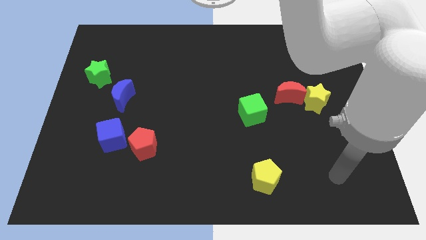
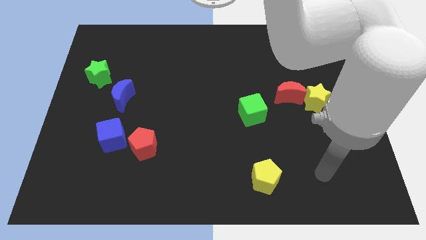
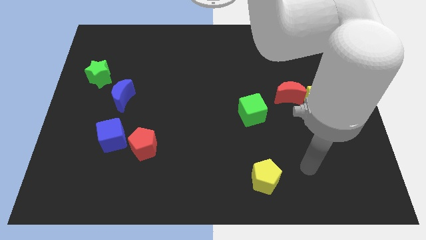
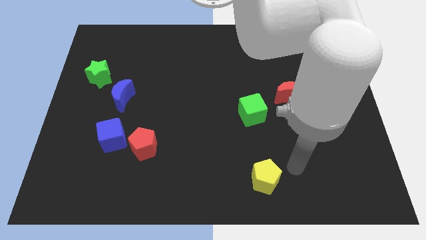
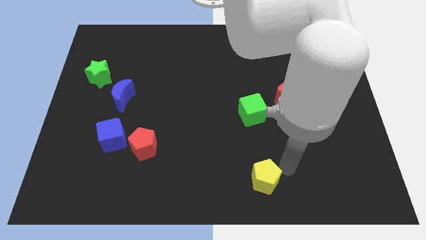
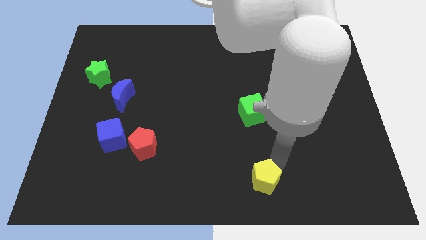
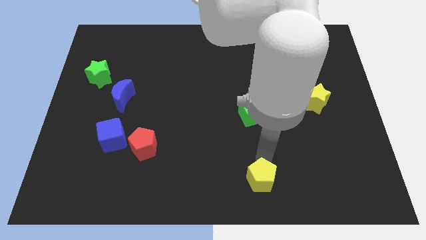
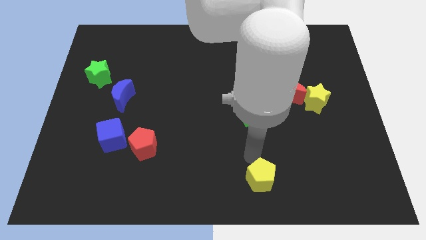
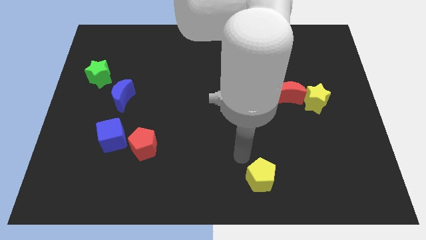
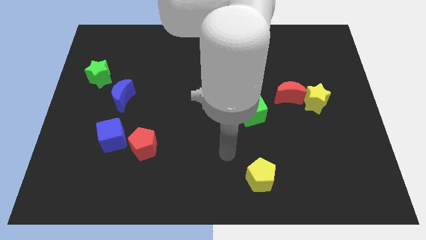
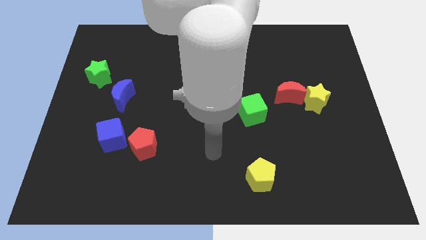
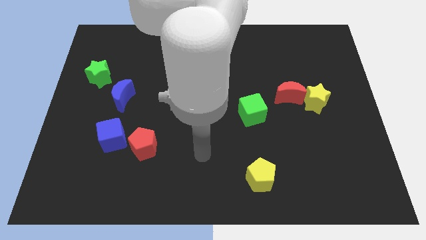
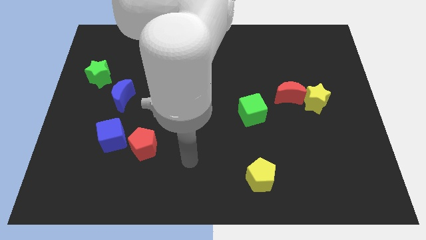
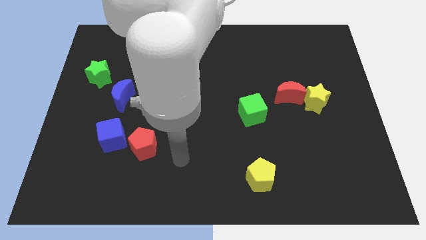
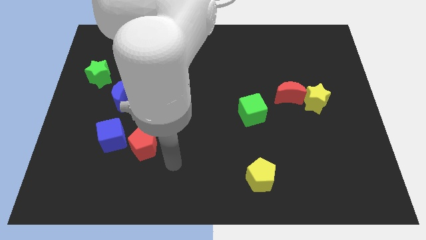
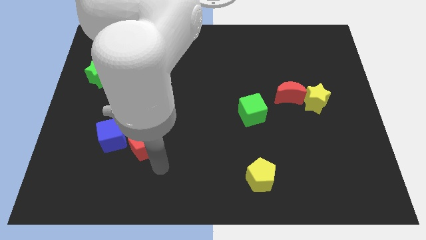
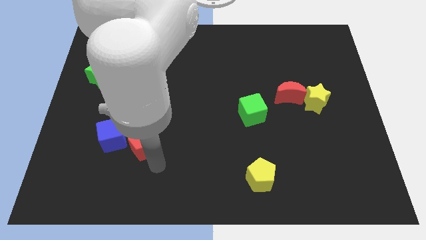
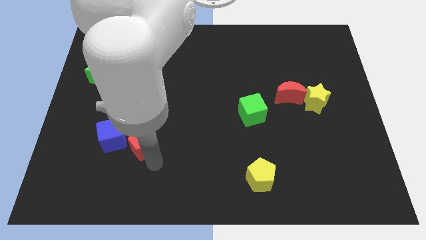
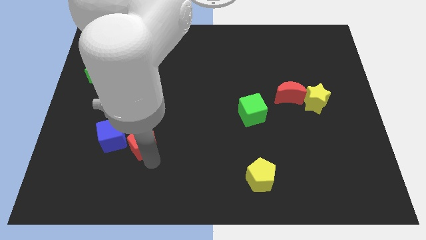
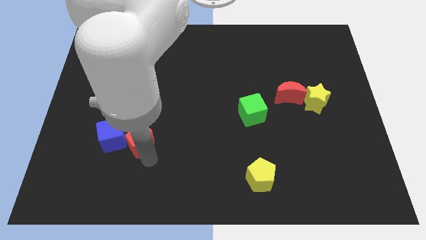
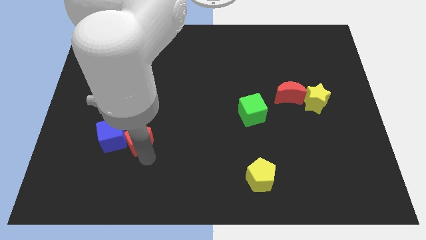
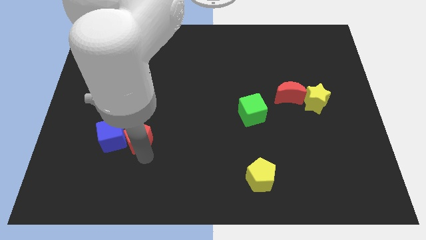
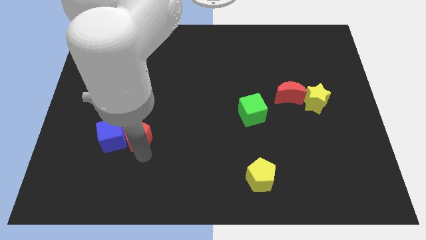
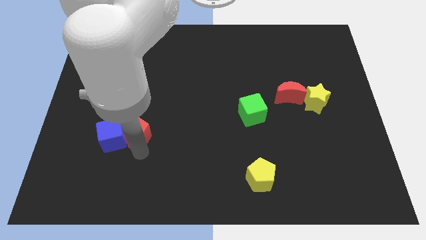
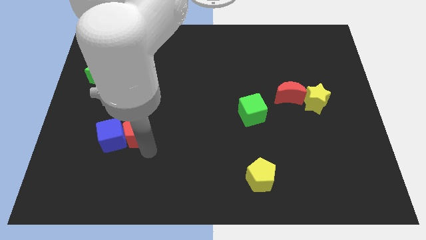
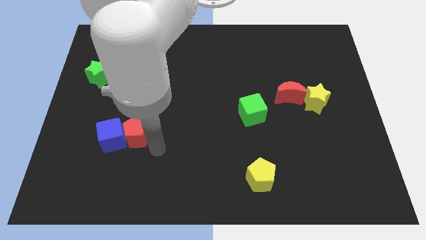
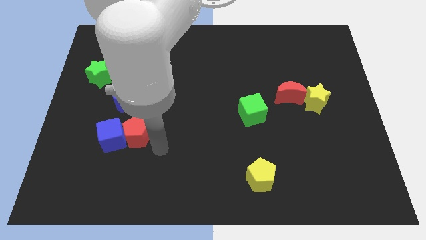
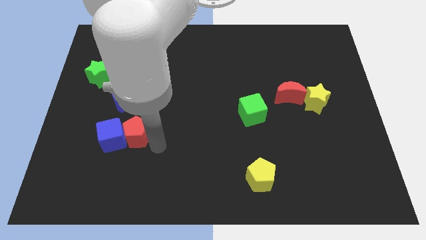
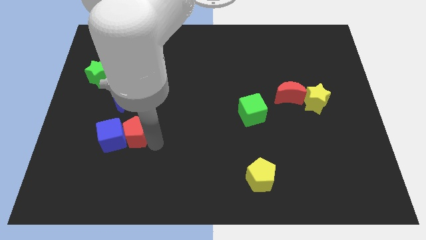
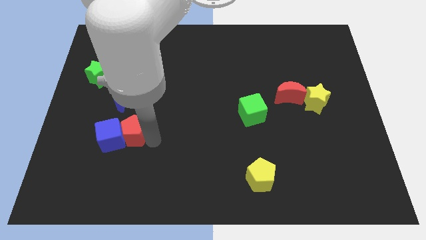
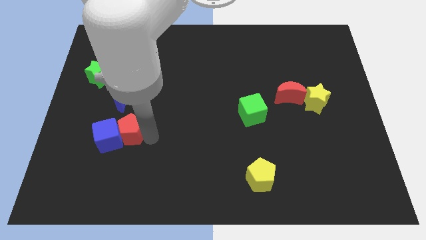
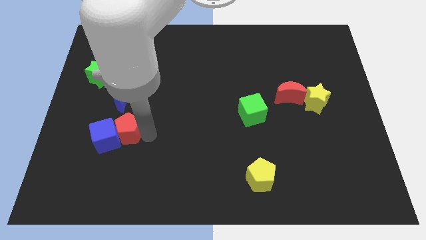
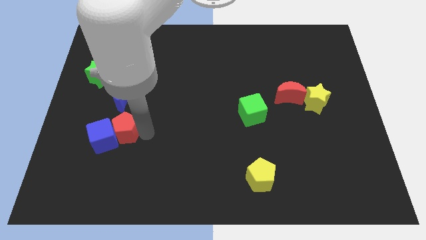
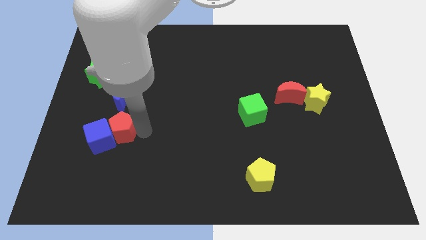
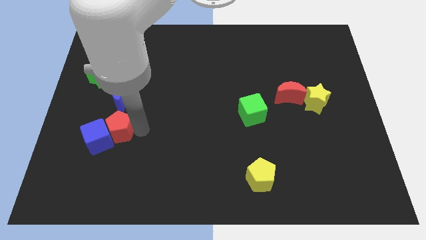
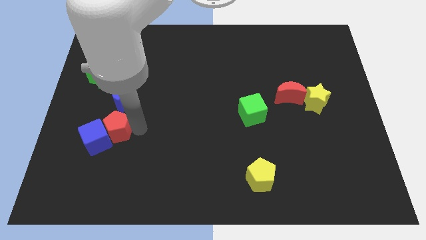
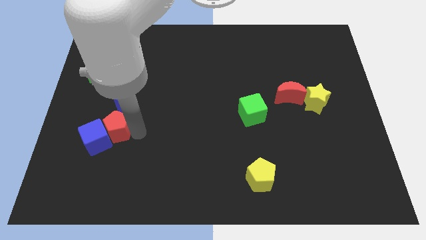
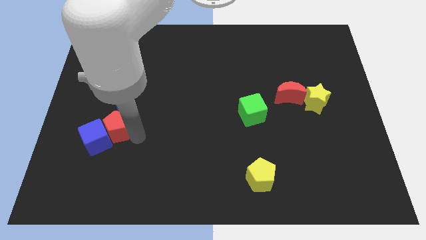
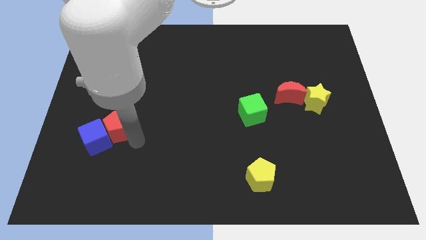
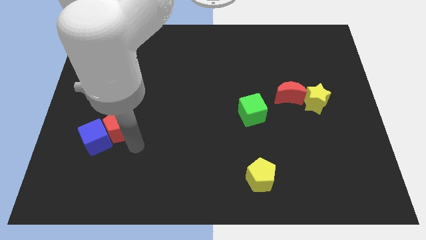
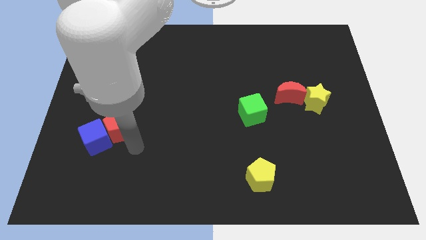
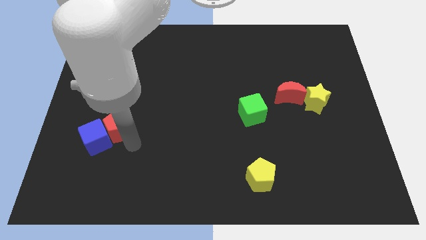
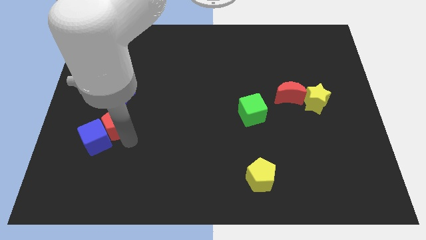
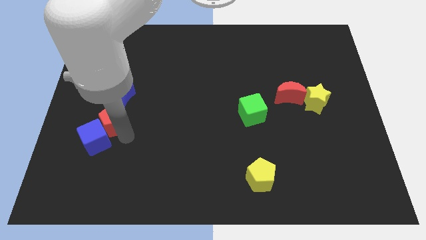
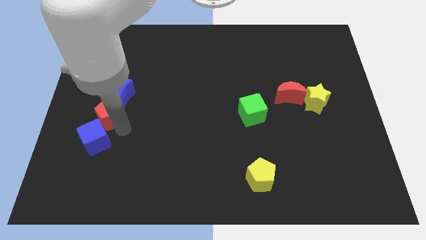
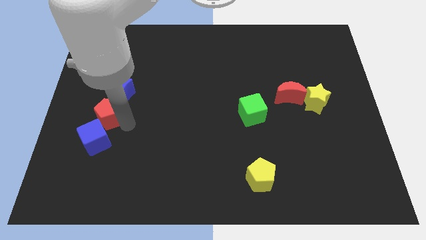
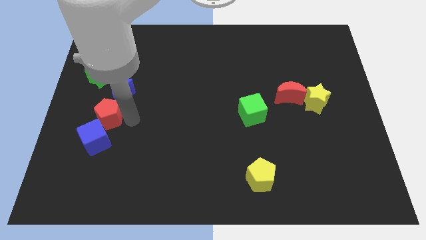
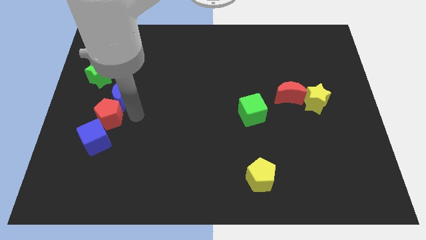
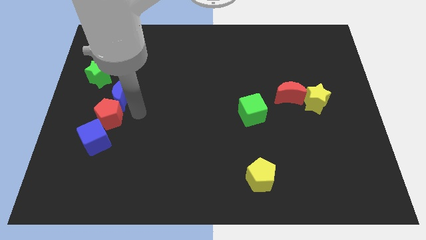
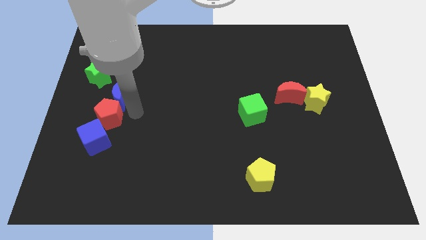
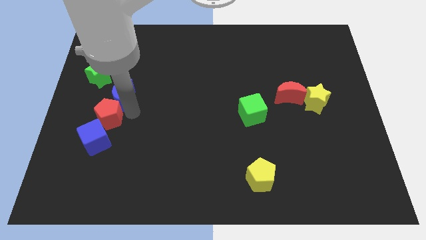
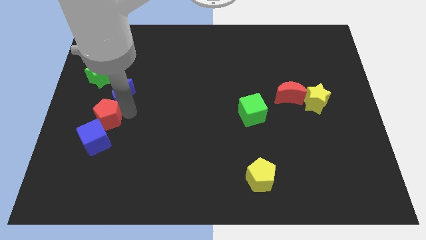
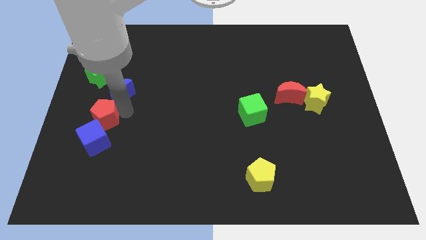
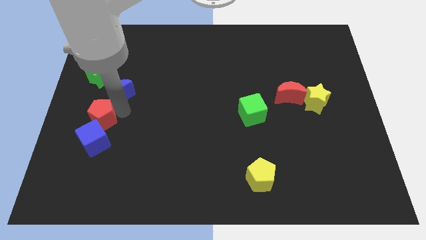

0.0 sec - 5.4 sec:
slide the red pentagon to the top left side of the blue cube

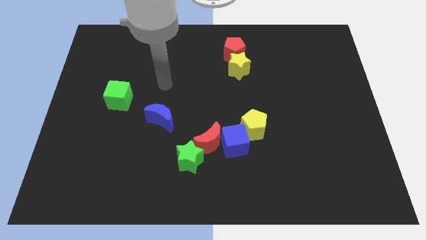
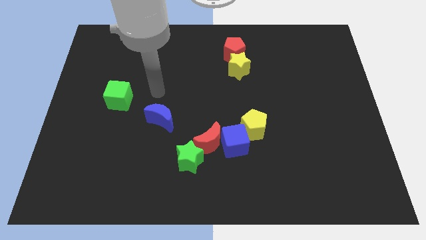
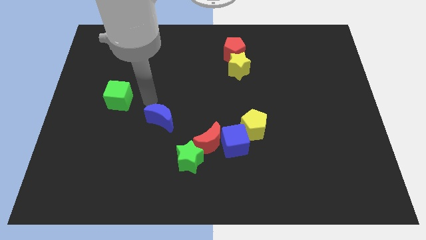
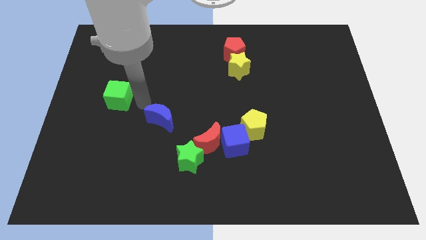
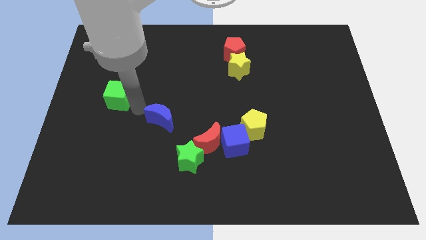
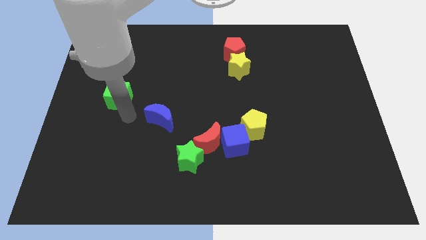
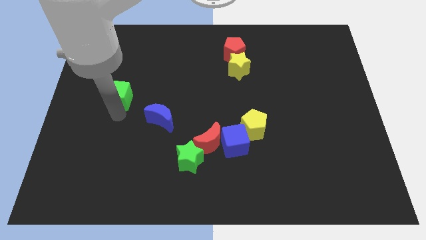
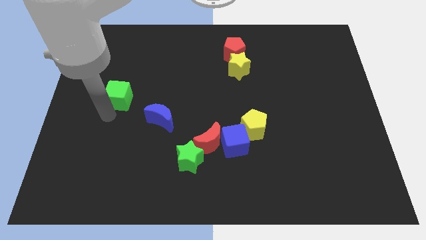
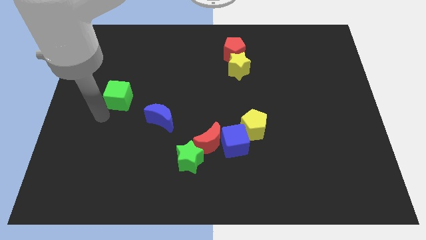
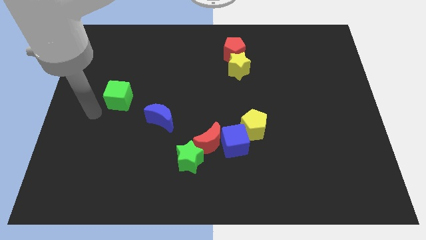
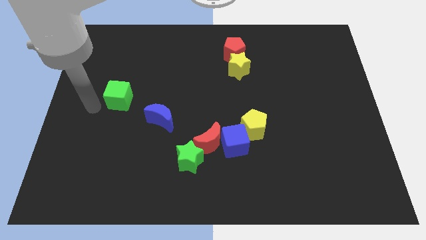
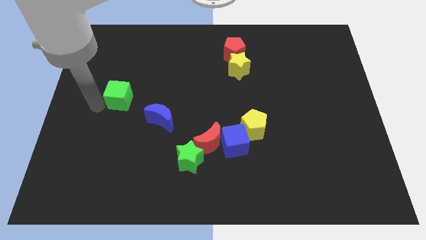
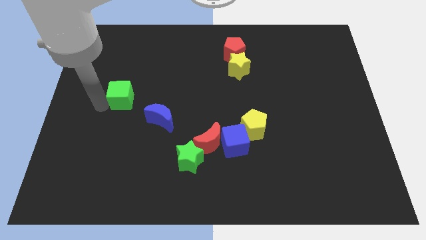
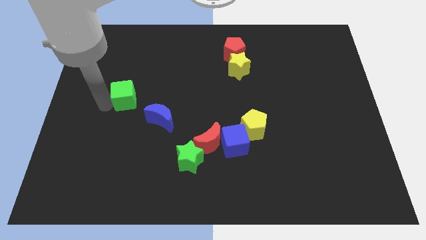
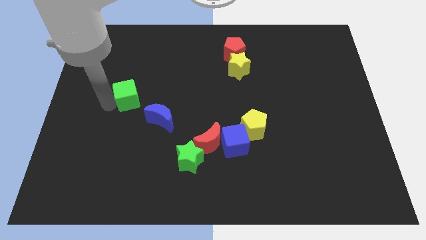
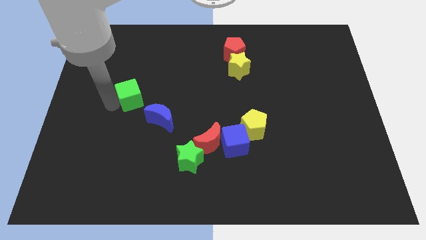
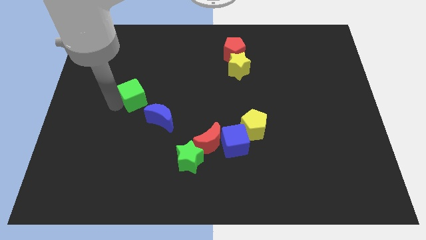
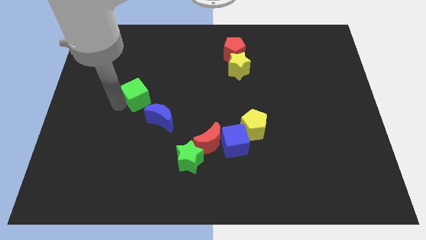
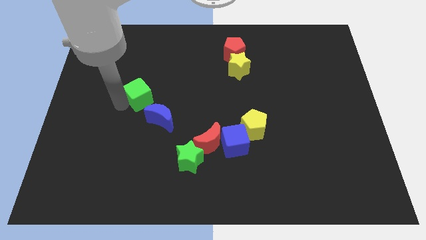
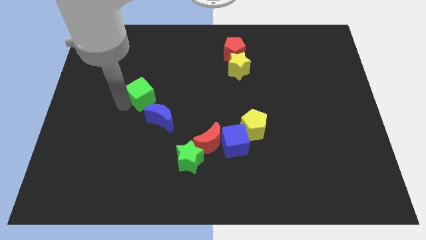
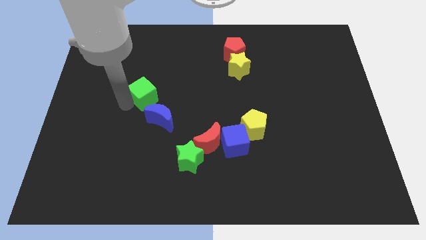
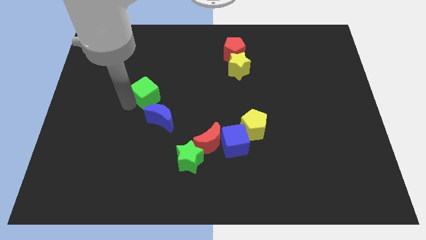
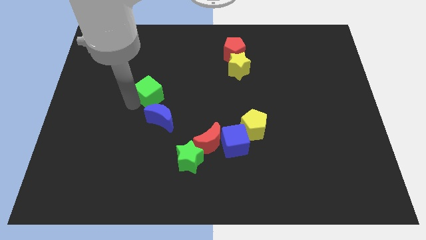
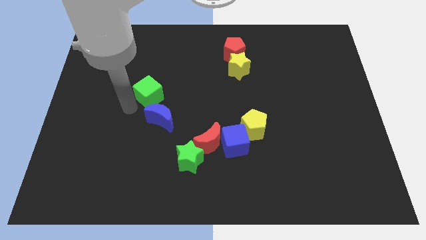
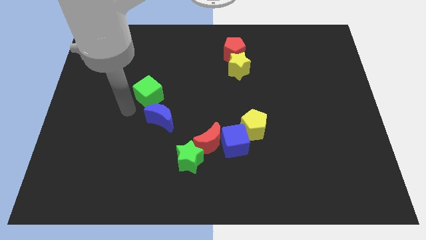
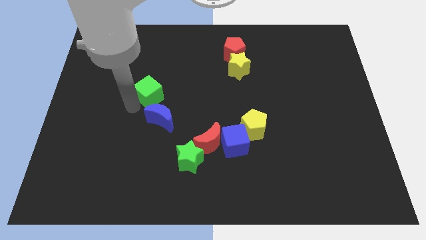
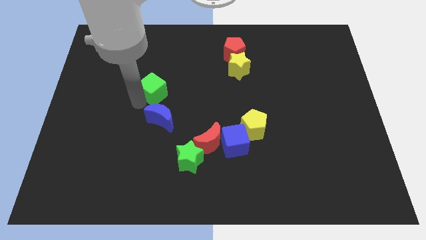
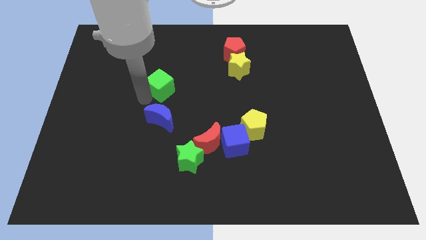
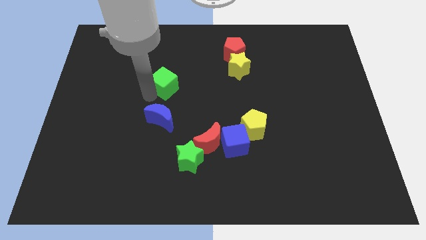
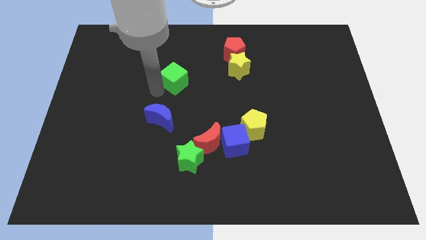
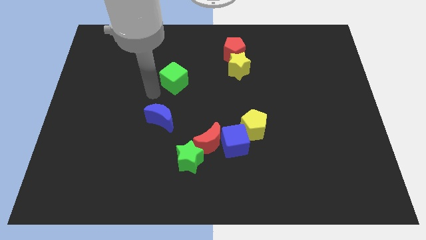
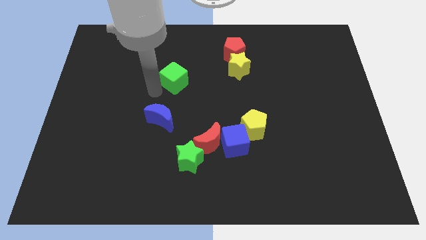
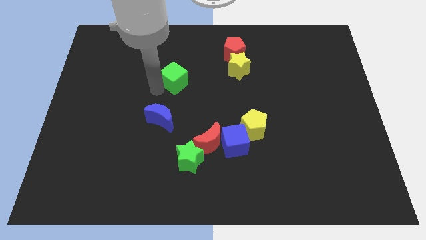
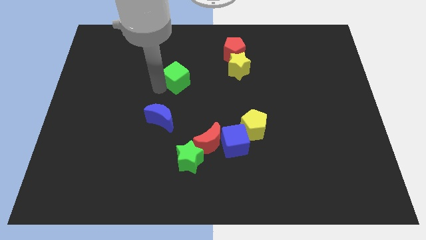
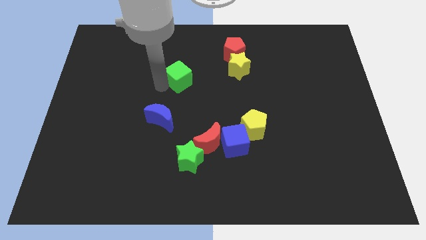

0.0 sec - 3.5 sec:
slide the green cube just left of the yellow star
